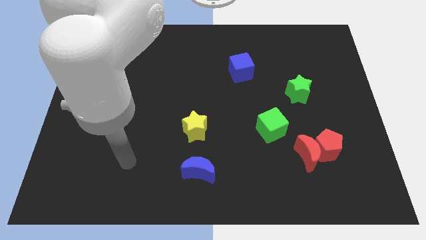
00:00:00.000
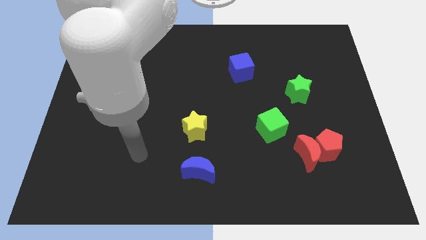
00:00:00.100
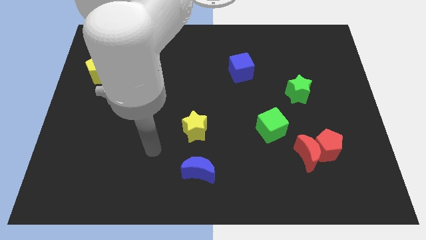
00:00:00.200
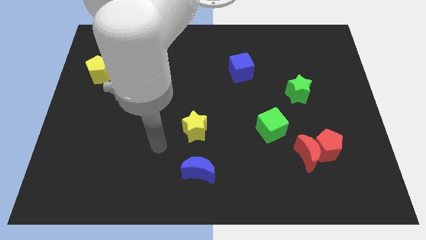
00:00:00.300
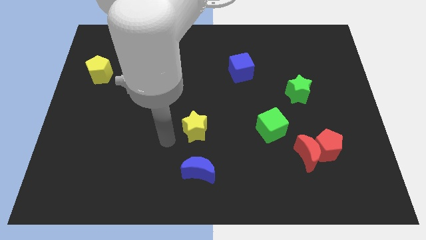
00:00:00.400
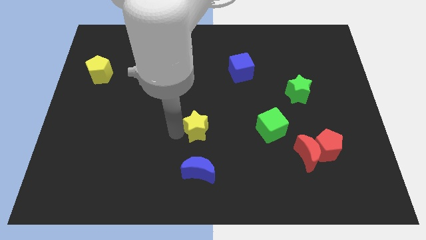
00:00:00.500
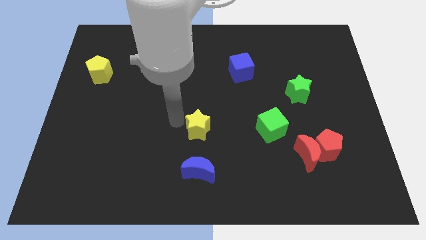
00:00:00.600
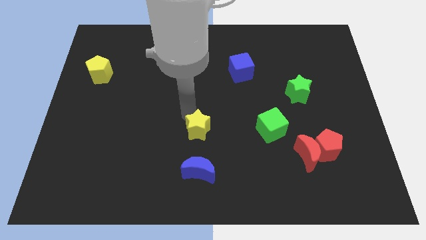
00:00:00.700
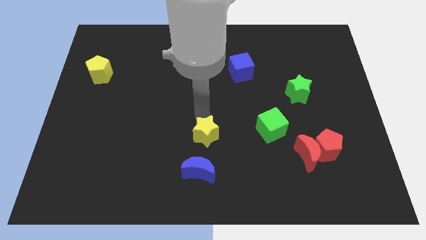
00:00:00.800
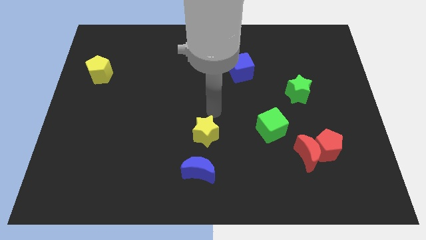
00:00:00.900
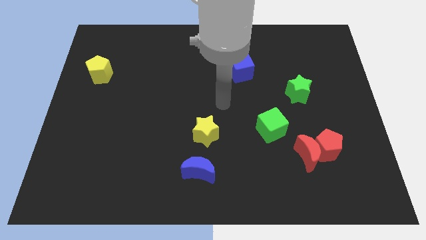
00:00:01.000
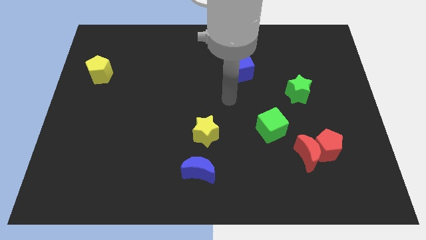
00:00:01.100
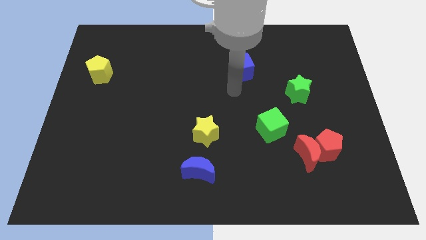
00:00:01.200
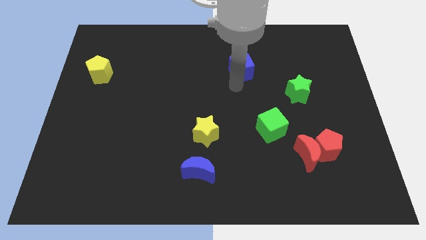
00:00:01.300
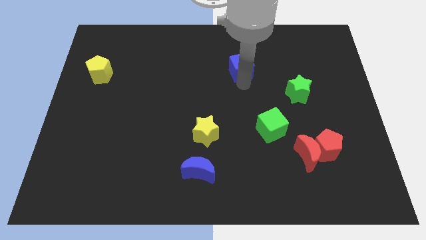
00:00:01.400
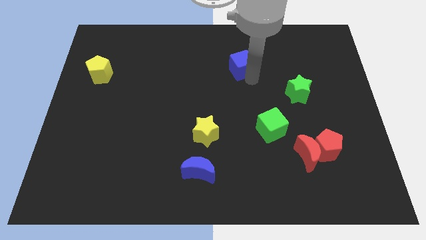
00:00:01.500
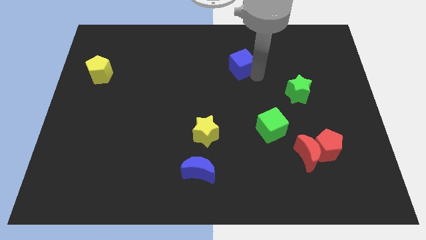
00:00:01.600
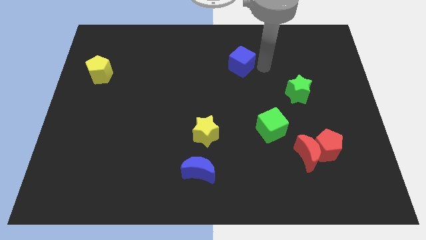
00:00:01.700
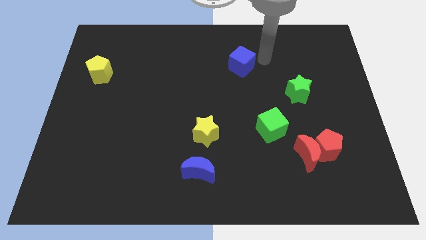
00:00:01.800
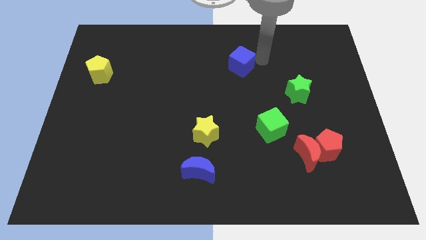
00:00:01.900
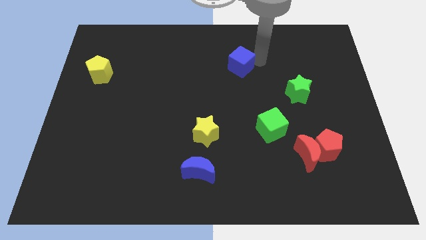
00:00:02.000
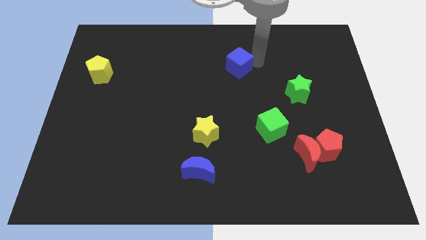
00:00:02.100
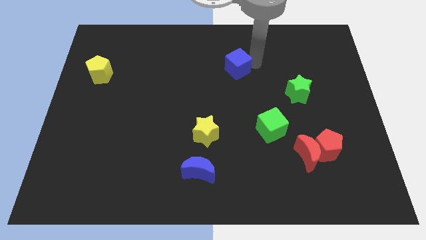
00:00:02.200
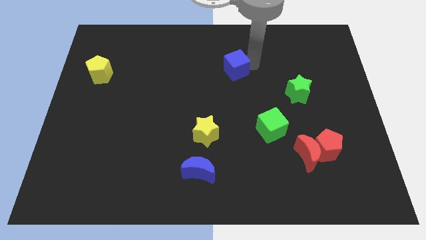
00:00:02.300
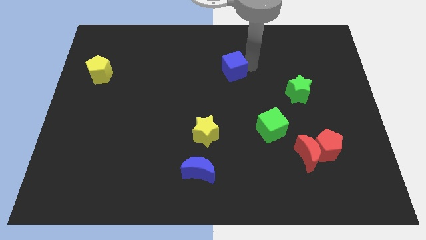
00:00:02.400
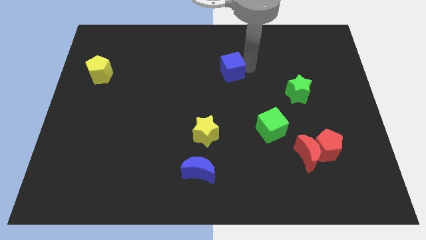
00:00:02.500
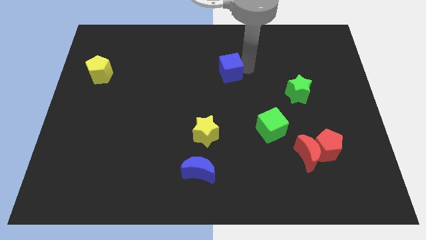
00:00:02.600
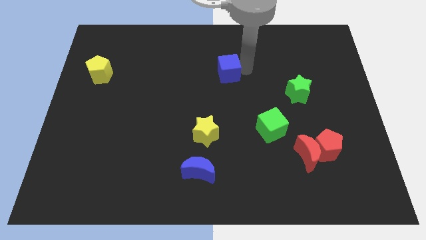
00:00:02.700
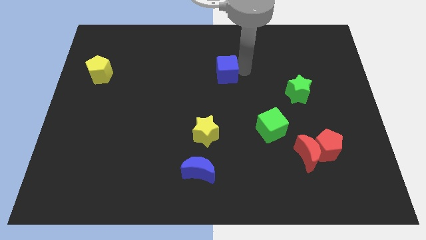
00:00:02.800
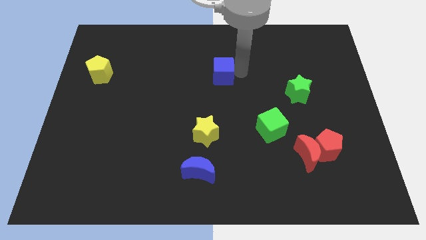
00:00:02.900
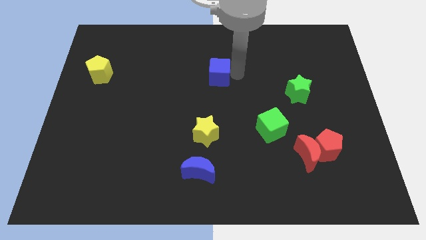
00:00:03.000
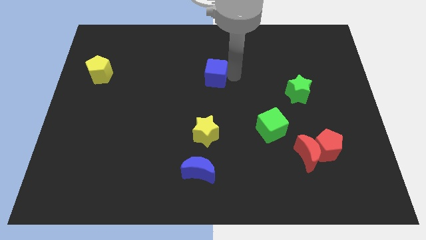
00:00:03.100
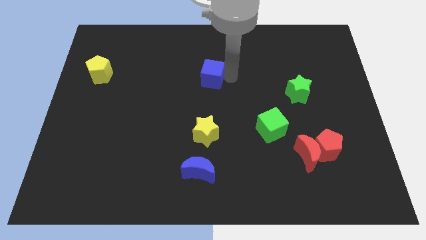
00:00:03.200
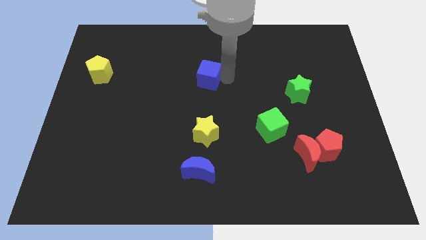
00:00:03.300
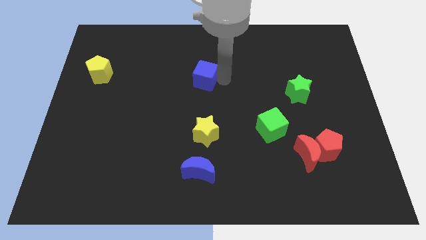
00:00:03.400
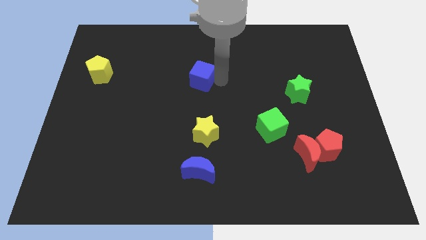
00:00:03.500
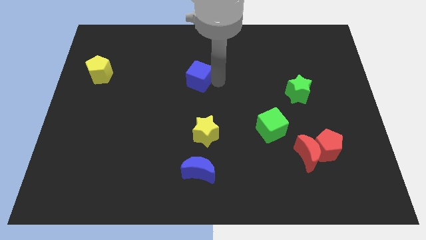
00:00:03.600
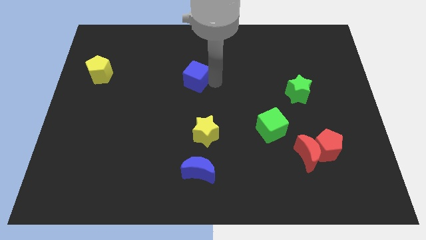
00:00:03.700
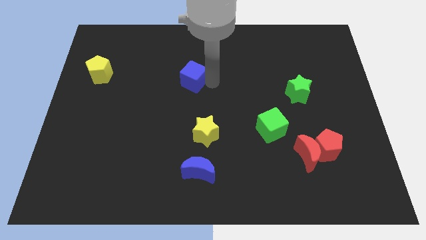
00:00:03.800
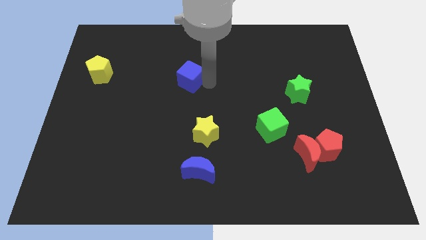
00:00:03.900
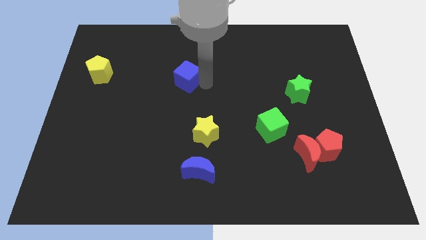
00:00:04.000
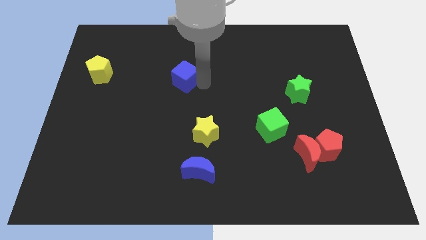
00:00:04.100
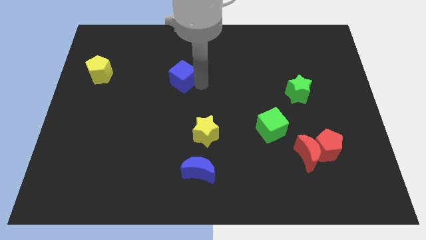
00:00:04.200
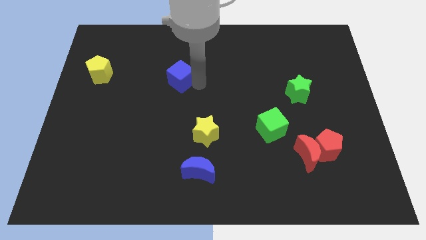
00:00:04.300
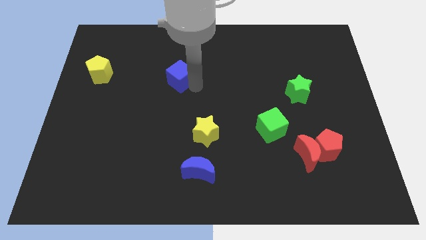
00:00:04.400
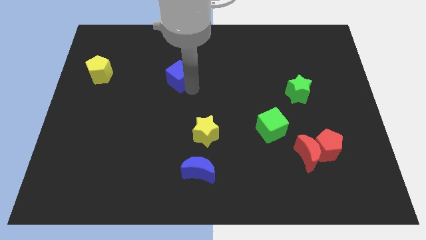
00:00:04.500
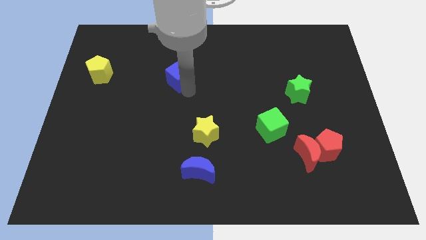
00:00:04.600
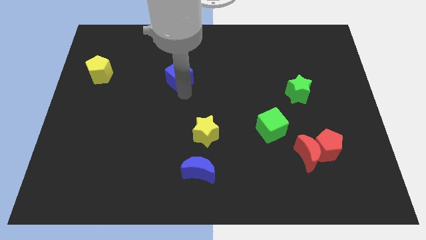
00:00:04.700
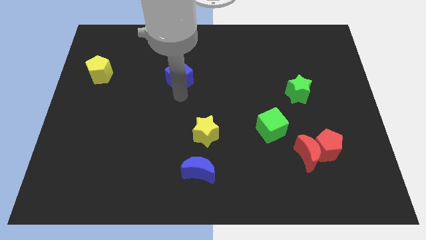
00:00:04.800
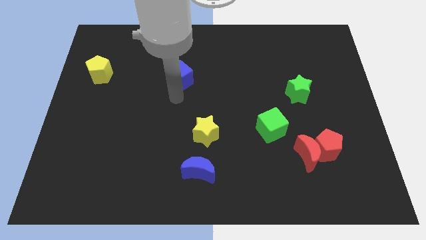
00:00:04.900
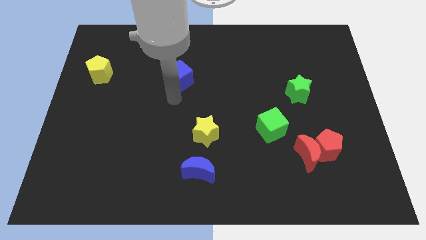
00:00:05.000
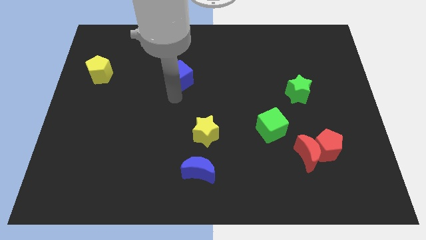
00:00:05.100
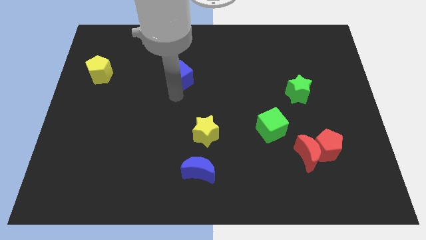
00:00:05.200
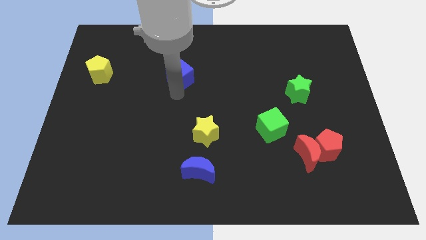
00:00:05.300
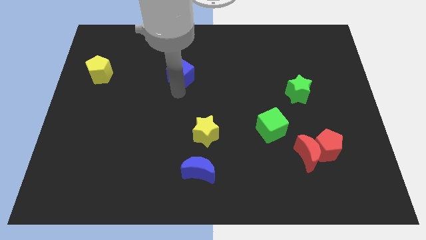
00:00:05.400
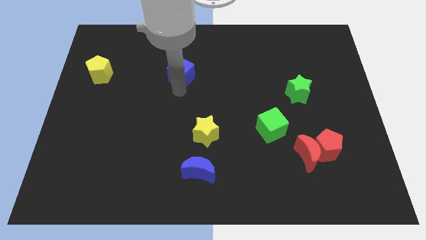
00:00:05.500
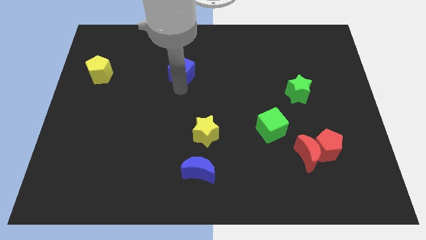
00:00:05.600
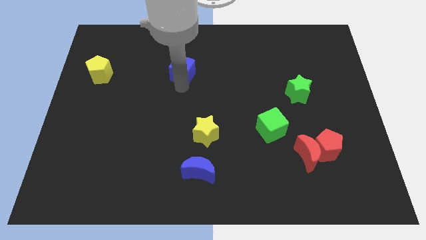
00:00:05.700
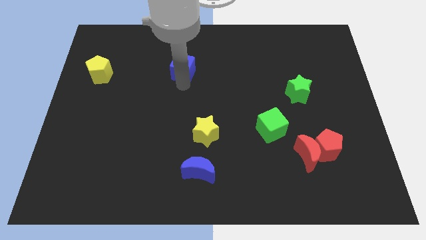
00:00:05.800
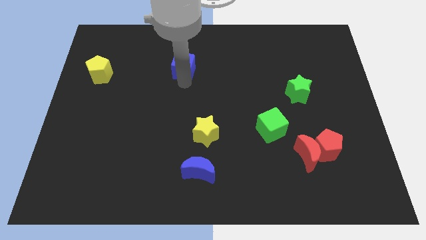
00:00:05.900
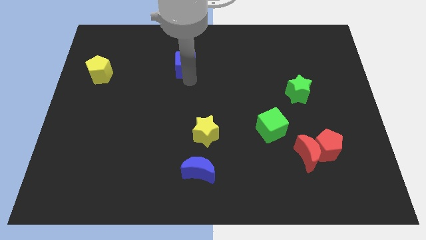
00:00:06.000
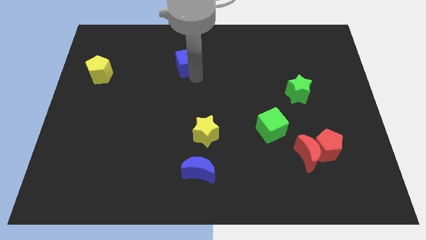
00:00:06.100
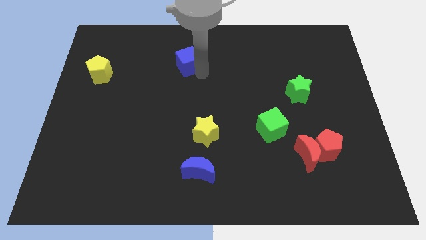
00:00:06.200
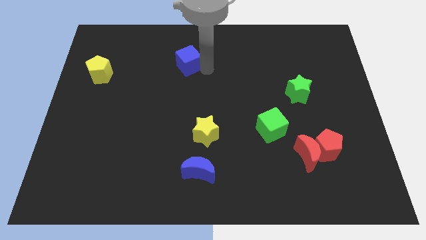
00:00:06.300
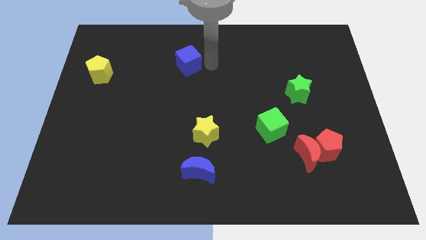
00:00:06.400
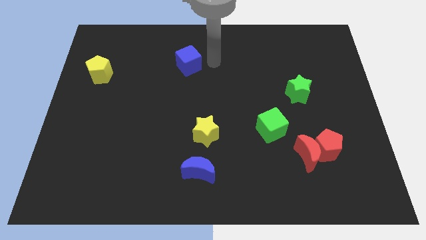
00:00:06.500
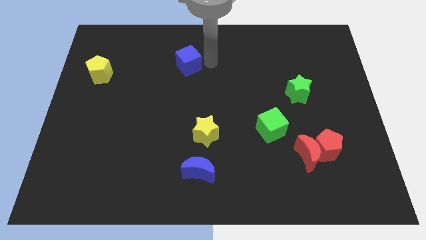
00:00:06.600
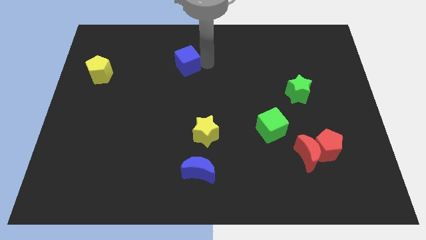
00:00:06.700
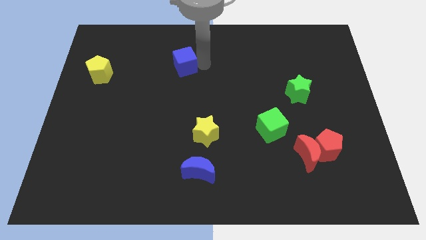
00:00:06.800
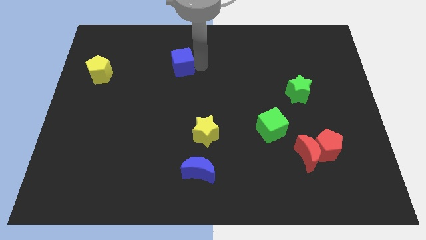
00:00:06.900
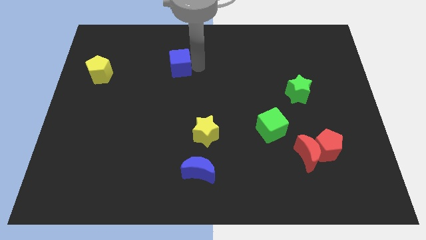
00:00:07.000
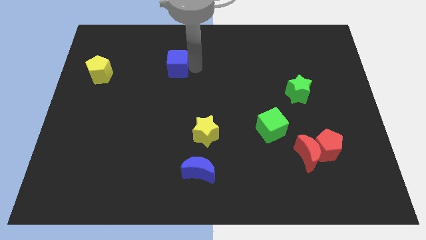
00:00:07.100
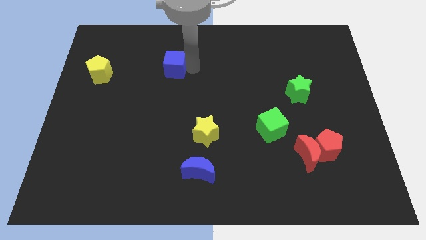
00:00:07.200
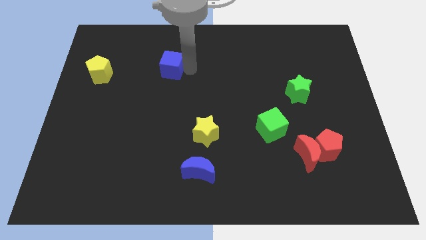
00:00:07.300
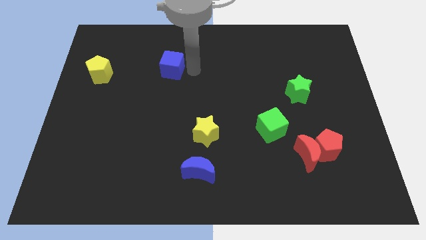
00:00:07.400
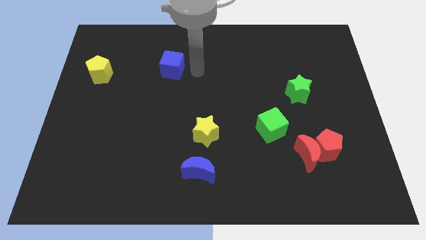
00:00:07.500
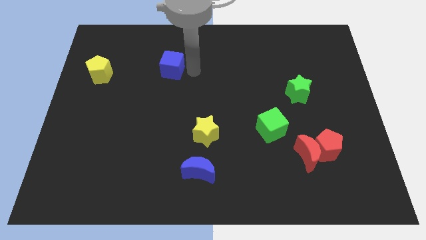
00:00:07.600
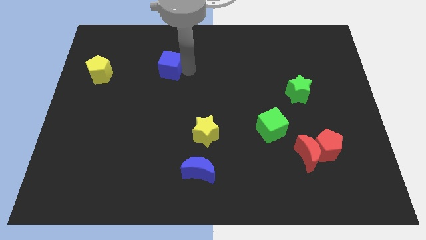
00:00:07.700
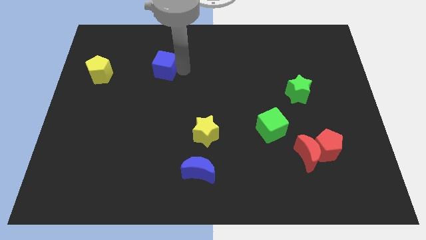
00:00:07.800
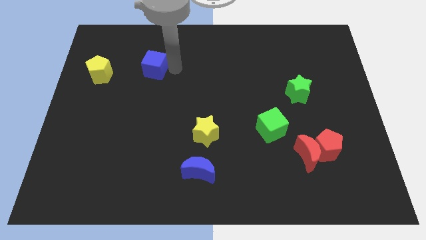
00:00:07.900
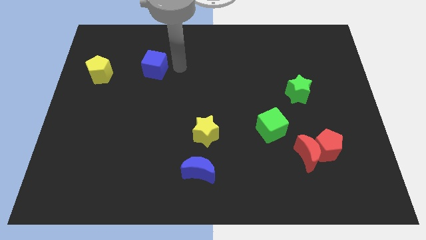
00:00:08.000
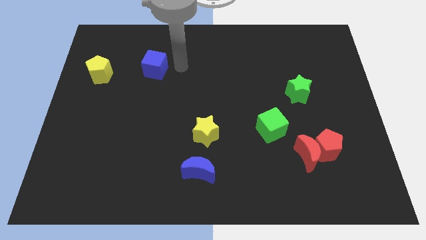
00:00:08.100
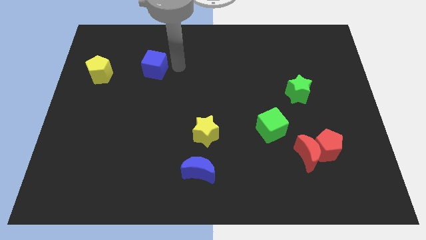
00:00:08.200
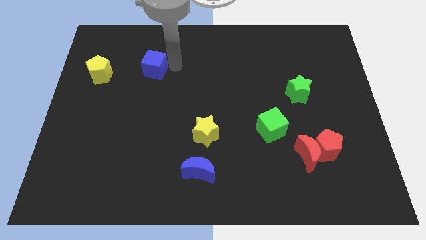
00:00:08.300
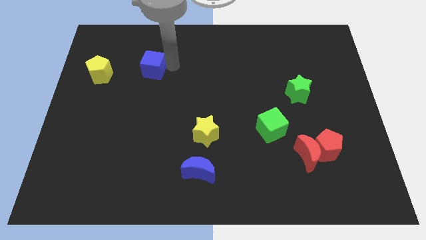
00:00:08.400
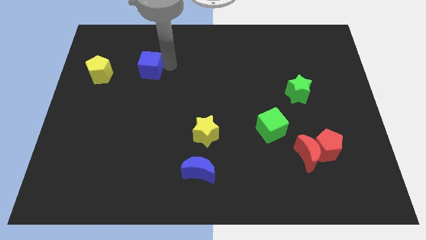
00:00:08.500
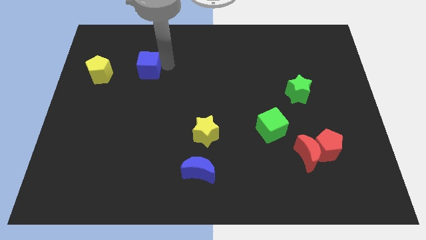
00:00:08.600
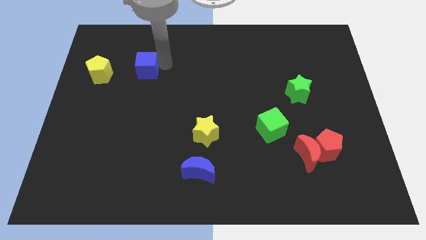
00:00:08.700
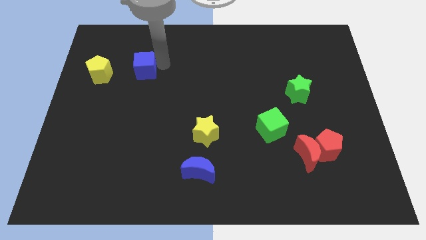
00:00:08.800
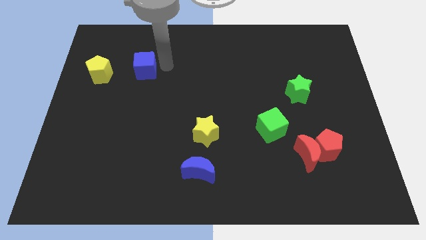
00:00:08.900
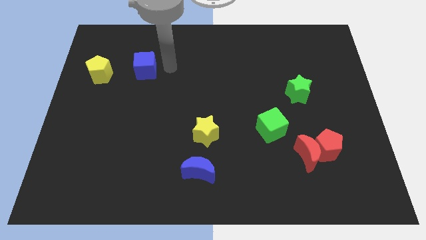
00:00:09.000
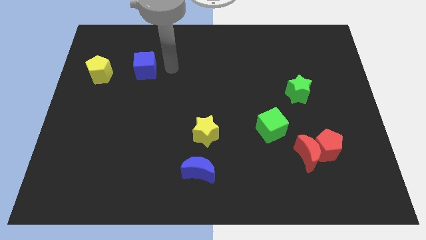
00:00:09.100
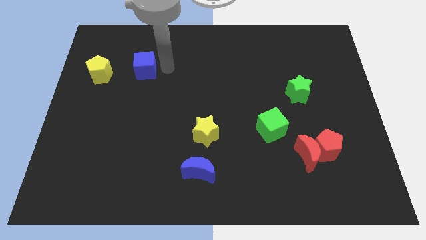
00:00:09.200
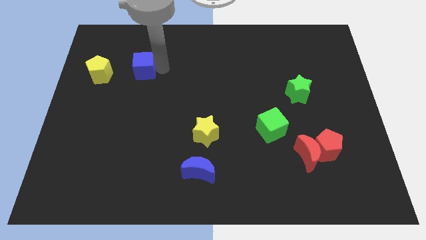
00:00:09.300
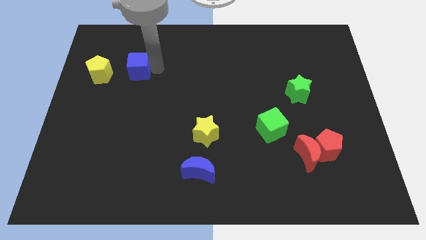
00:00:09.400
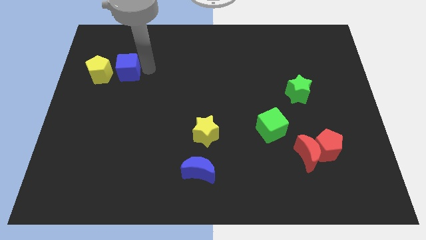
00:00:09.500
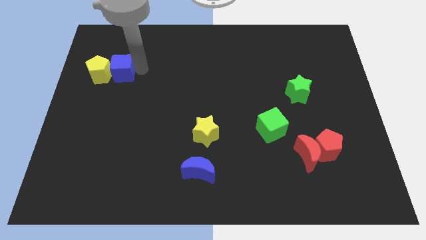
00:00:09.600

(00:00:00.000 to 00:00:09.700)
put the blue cube next to the yellow pentagon
